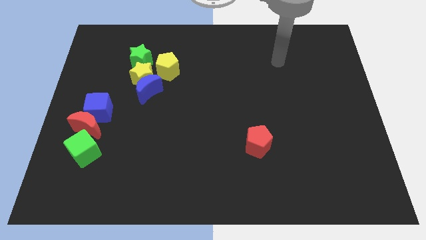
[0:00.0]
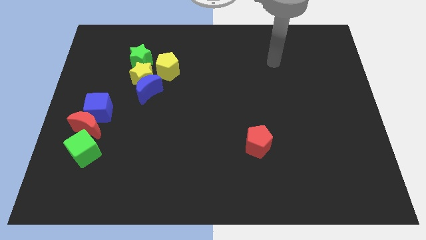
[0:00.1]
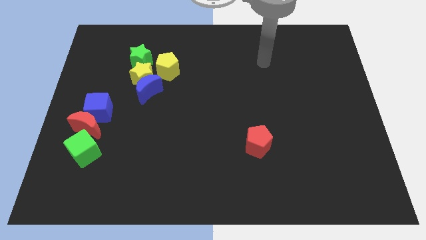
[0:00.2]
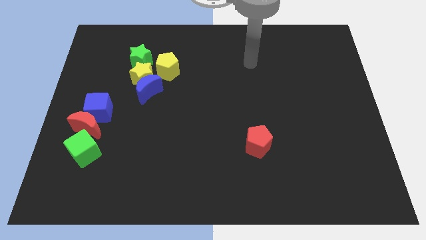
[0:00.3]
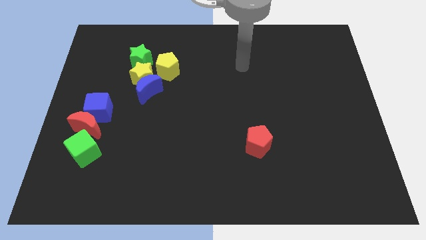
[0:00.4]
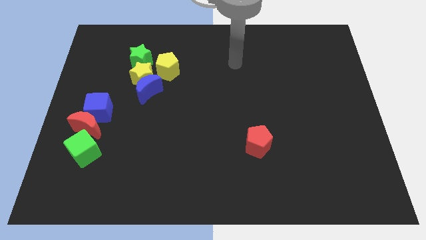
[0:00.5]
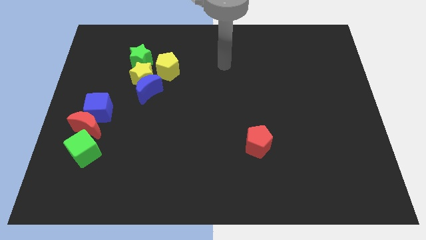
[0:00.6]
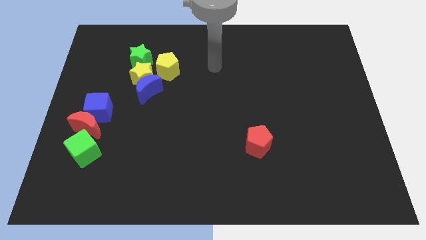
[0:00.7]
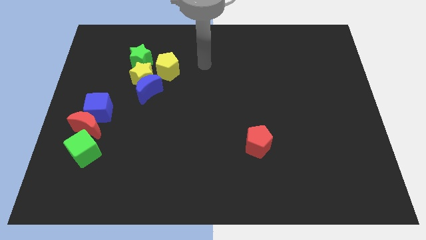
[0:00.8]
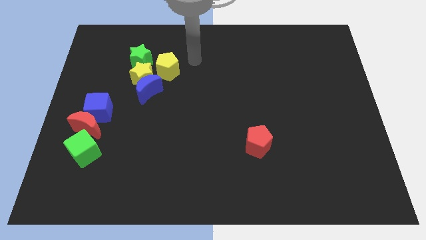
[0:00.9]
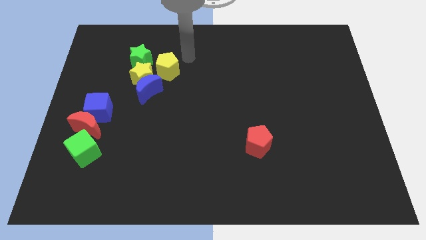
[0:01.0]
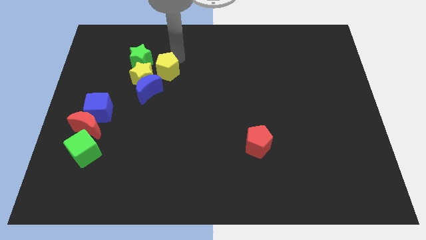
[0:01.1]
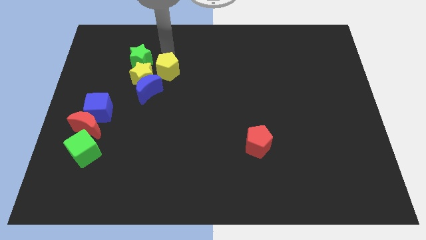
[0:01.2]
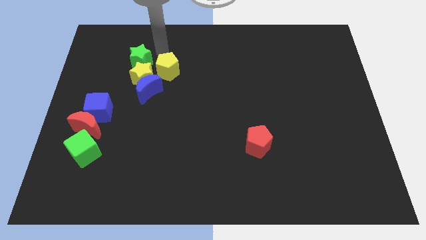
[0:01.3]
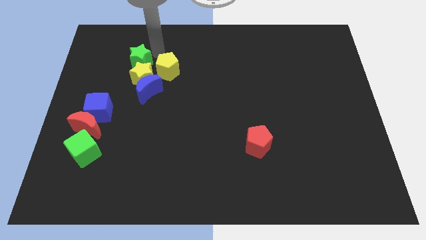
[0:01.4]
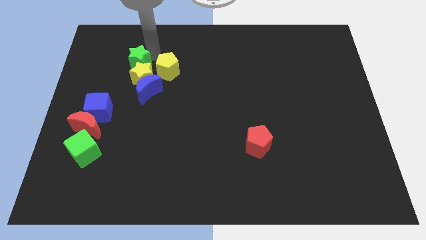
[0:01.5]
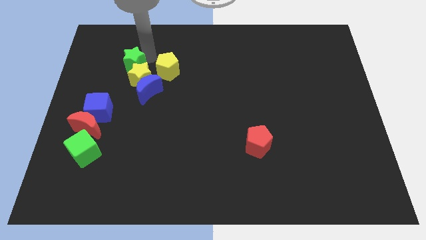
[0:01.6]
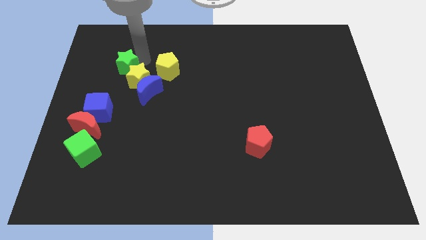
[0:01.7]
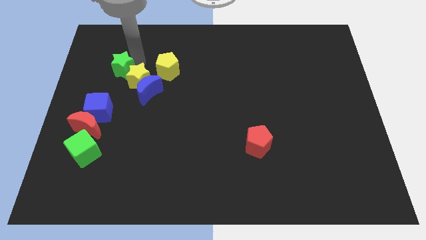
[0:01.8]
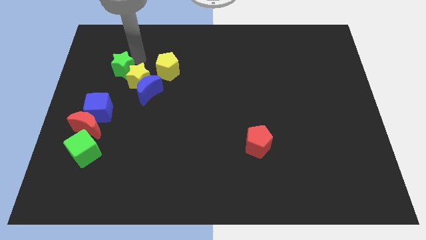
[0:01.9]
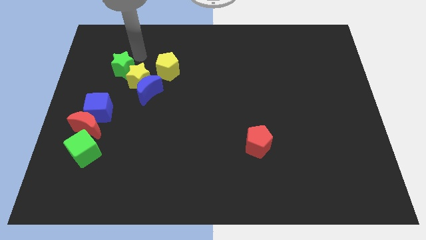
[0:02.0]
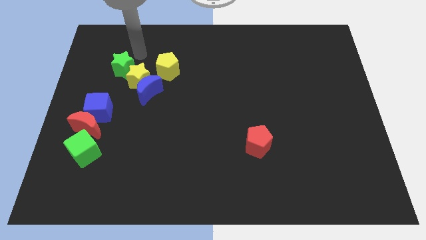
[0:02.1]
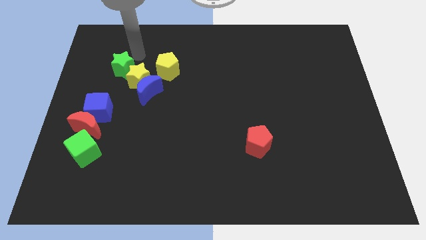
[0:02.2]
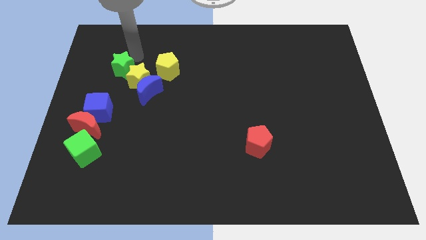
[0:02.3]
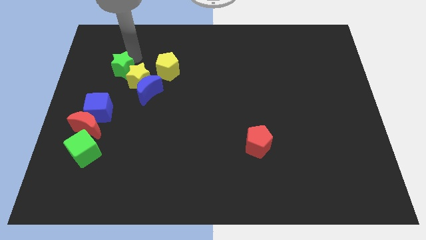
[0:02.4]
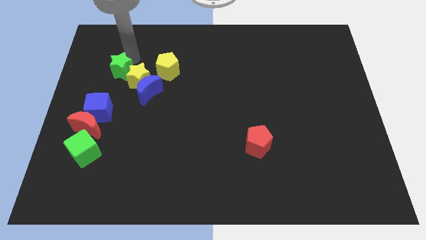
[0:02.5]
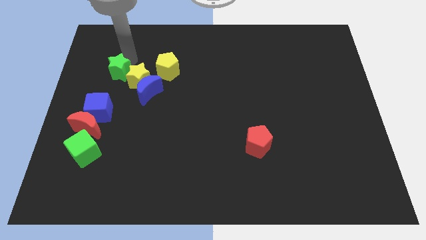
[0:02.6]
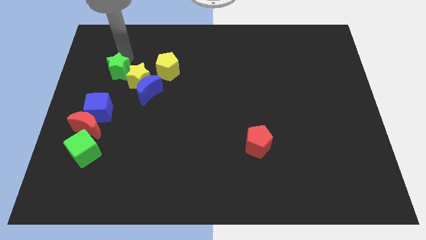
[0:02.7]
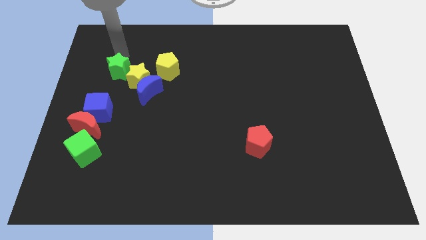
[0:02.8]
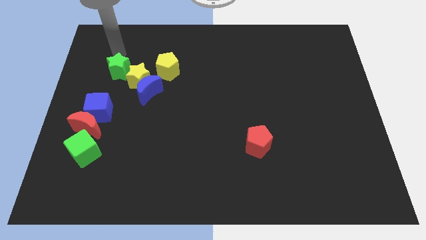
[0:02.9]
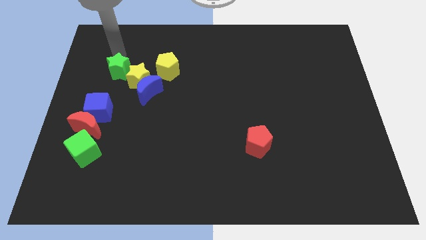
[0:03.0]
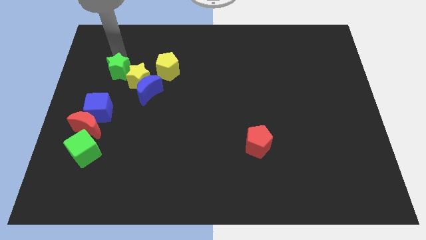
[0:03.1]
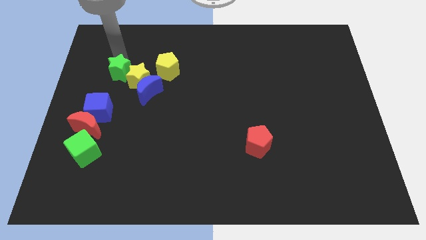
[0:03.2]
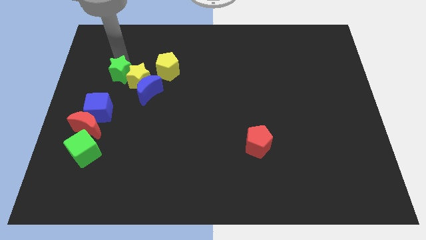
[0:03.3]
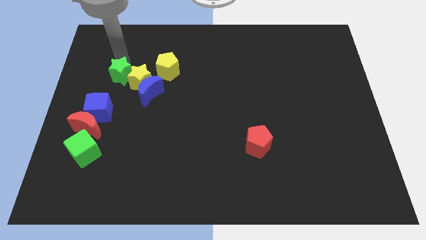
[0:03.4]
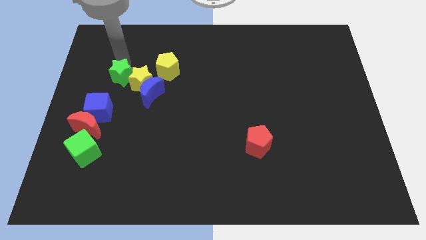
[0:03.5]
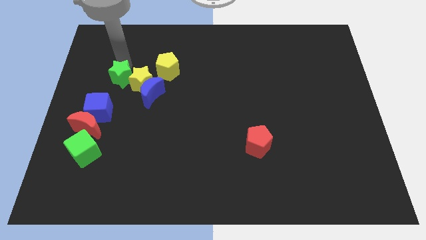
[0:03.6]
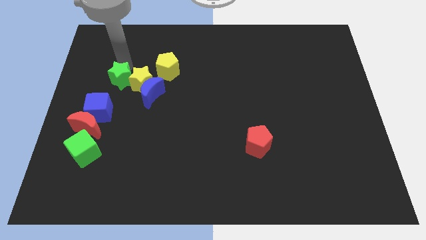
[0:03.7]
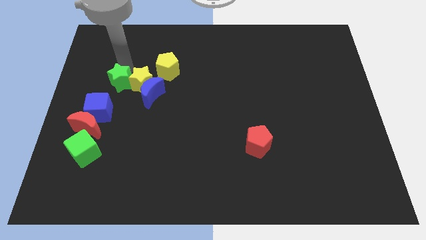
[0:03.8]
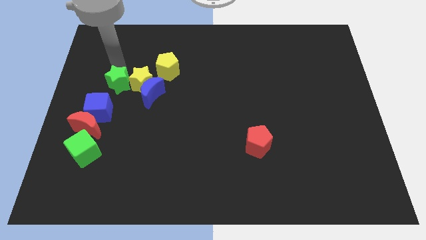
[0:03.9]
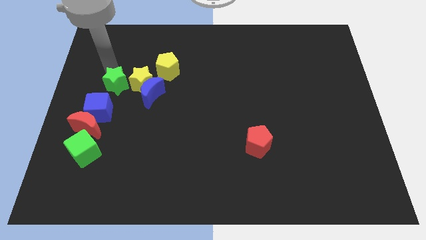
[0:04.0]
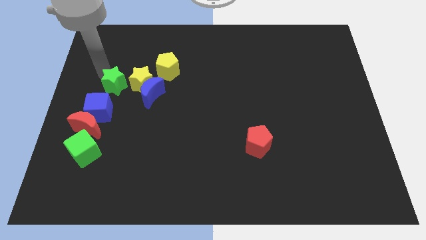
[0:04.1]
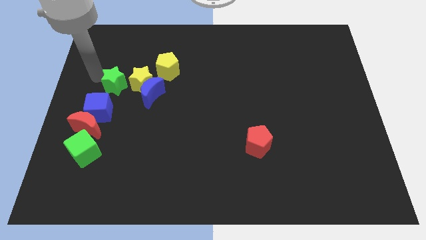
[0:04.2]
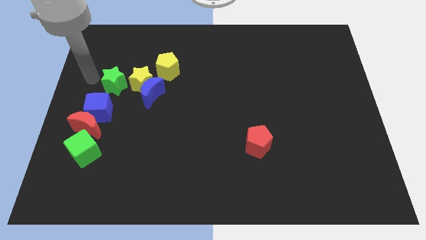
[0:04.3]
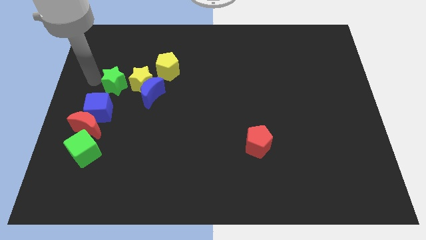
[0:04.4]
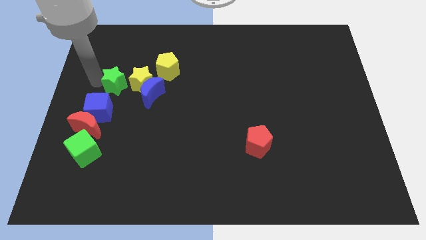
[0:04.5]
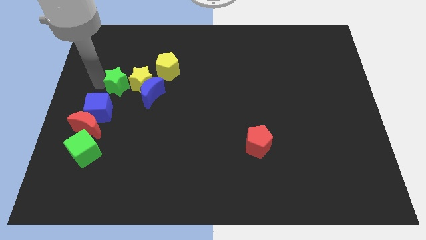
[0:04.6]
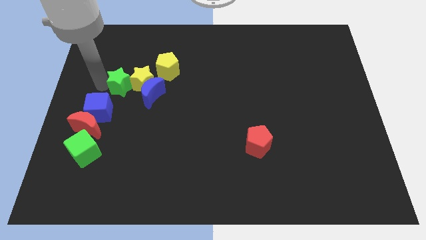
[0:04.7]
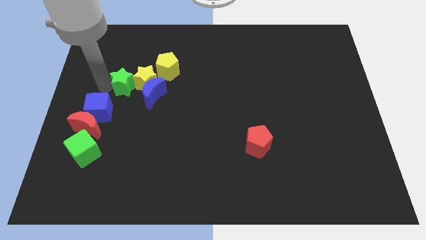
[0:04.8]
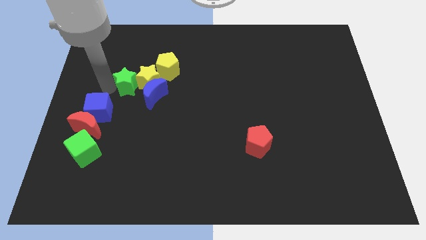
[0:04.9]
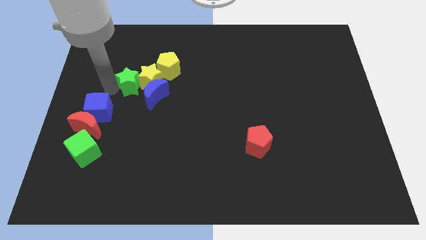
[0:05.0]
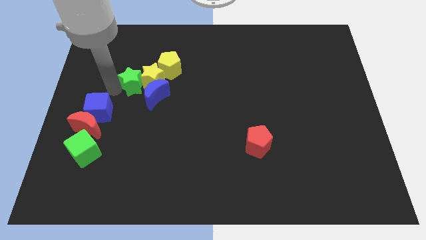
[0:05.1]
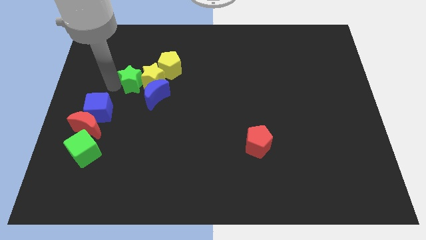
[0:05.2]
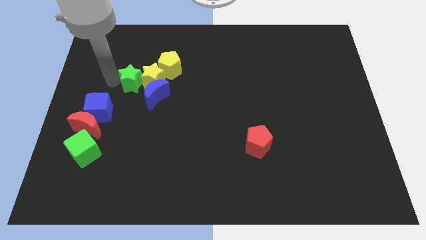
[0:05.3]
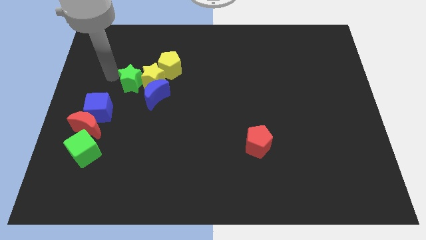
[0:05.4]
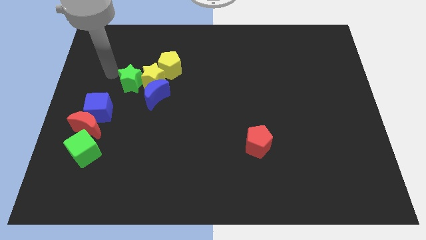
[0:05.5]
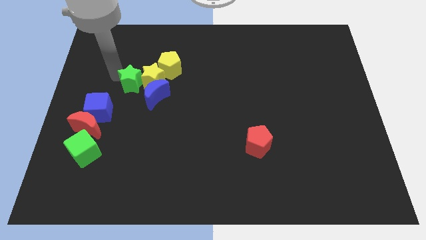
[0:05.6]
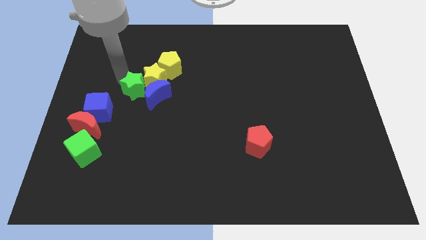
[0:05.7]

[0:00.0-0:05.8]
put the green star close to the blue moon

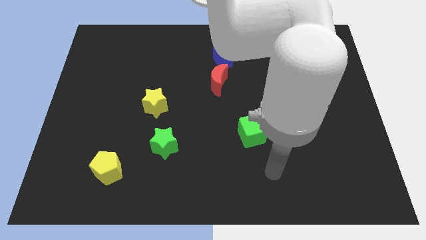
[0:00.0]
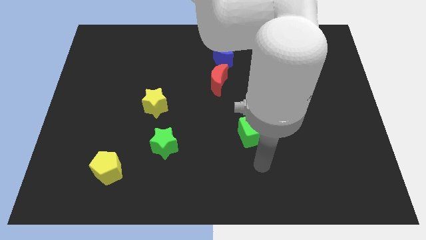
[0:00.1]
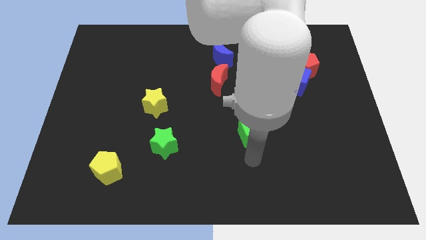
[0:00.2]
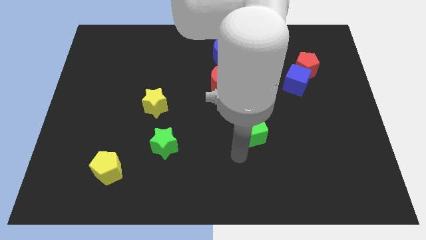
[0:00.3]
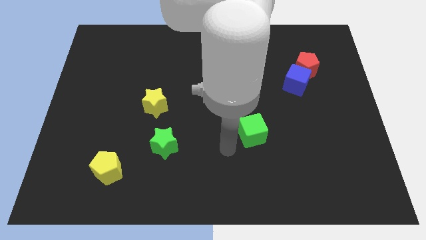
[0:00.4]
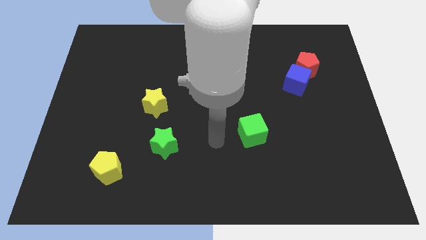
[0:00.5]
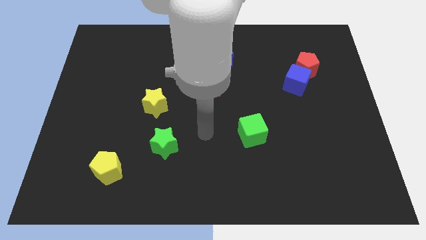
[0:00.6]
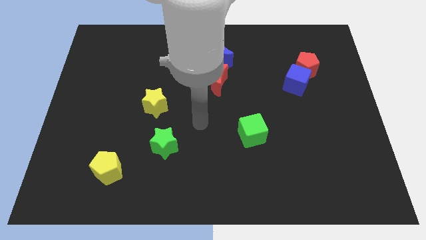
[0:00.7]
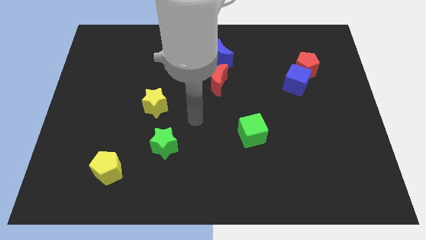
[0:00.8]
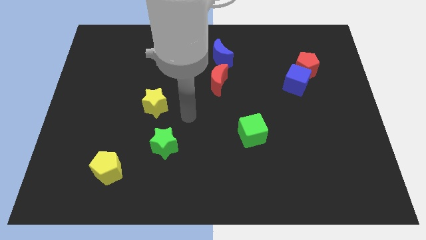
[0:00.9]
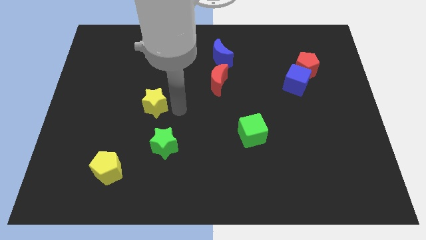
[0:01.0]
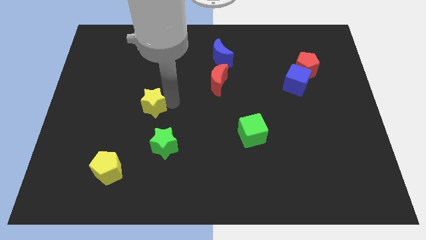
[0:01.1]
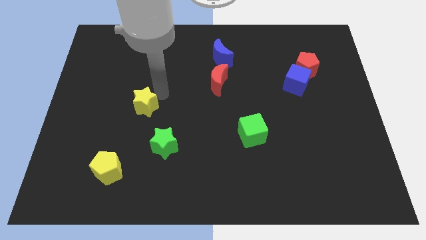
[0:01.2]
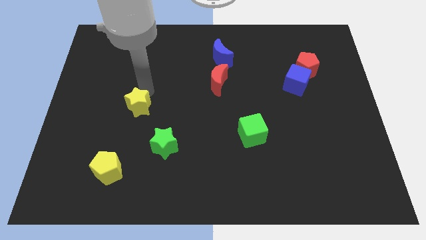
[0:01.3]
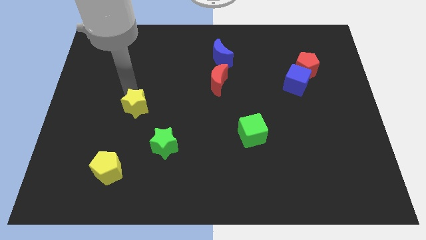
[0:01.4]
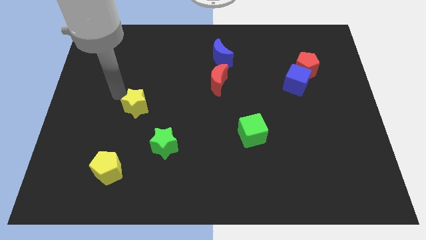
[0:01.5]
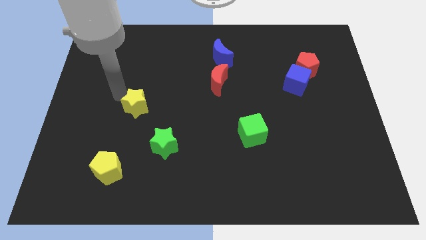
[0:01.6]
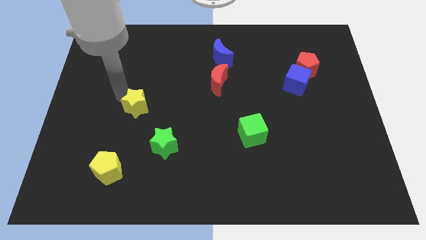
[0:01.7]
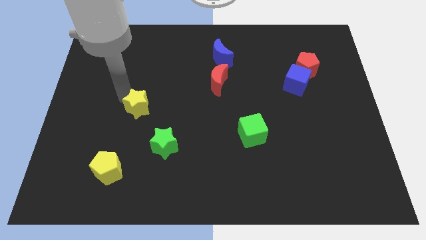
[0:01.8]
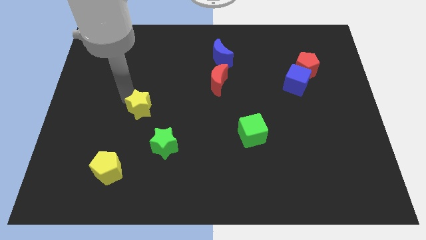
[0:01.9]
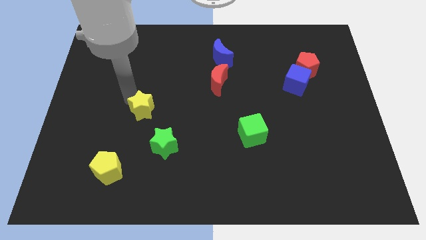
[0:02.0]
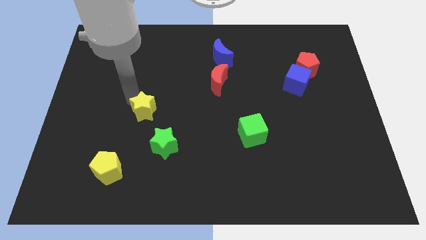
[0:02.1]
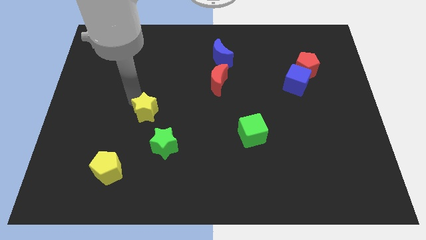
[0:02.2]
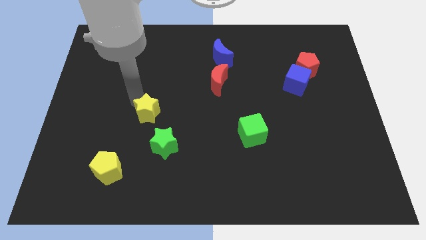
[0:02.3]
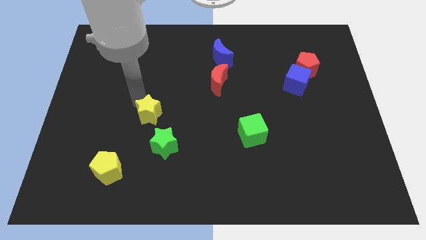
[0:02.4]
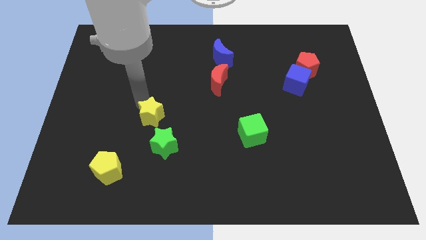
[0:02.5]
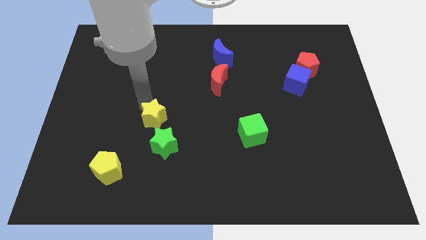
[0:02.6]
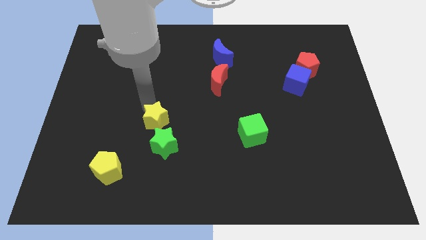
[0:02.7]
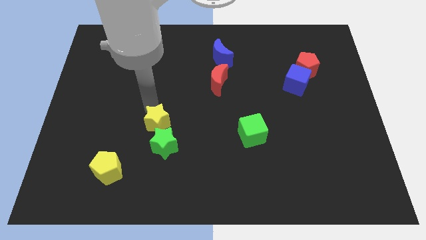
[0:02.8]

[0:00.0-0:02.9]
put the yellow star next to the green star
